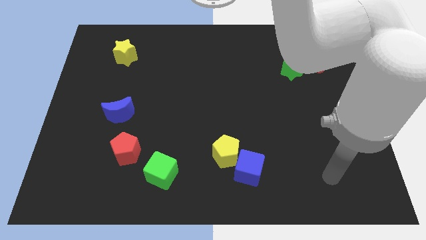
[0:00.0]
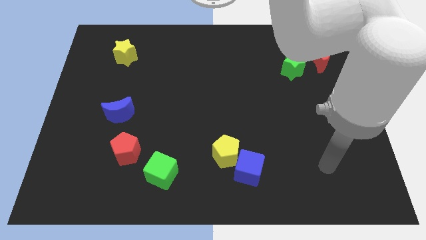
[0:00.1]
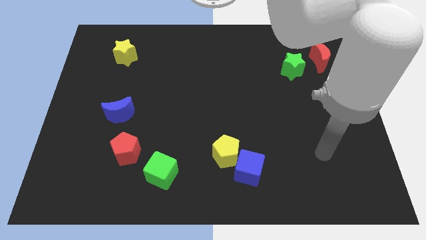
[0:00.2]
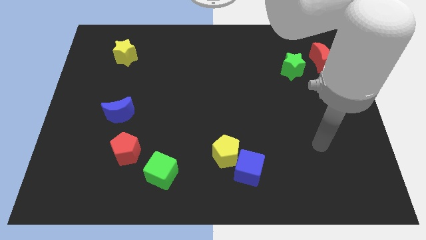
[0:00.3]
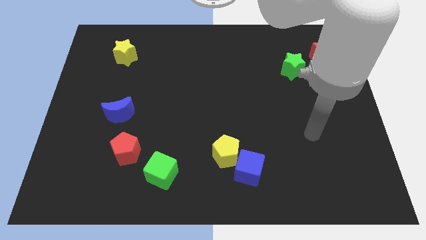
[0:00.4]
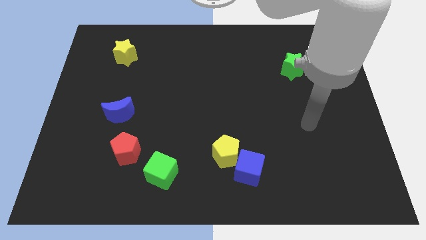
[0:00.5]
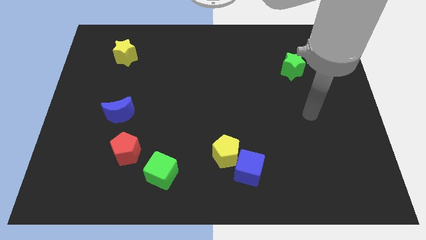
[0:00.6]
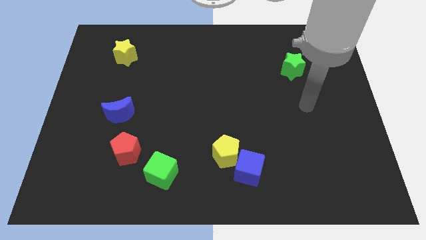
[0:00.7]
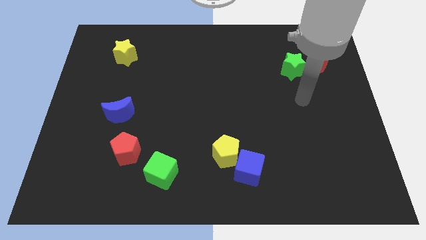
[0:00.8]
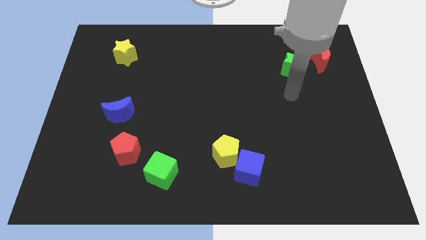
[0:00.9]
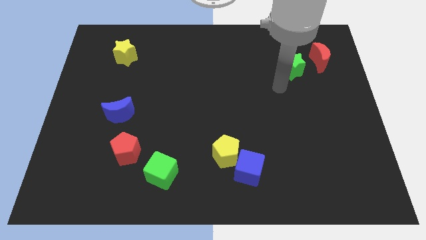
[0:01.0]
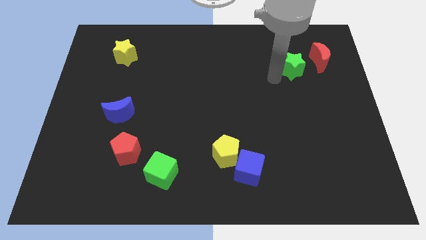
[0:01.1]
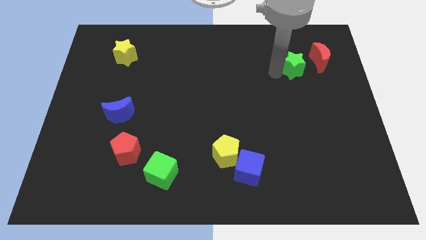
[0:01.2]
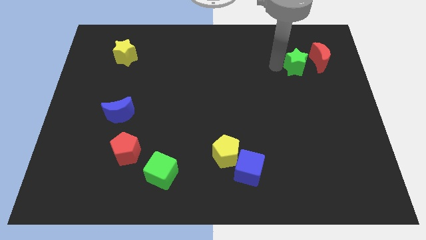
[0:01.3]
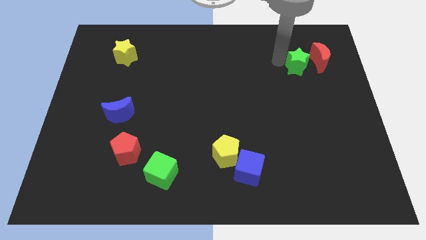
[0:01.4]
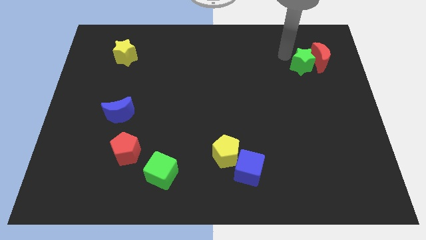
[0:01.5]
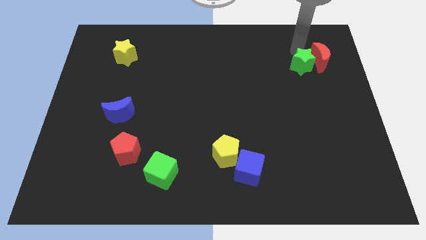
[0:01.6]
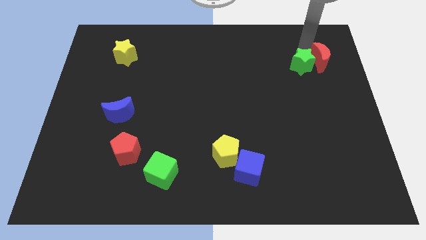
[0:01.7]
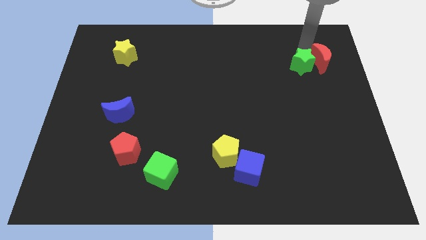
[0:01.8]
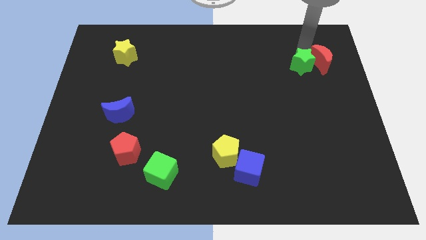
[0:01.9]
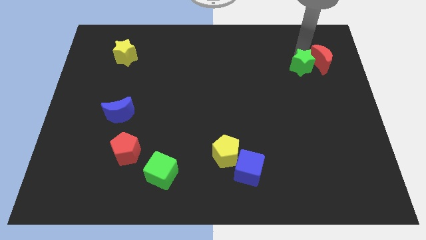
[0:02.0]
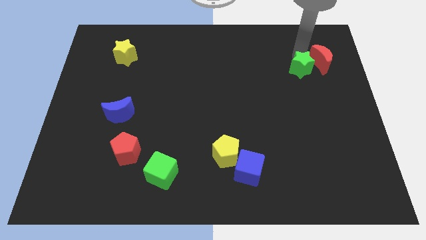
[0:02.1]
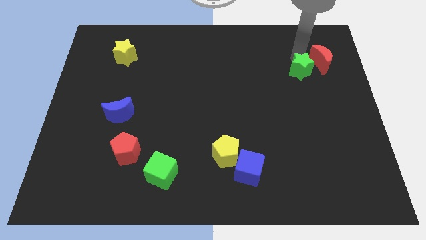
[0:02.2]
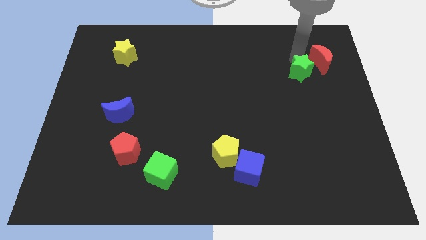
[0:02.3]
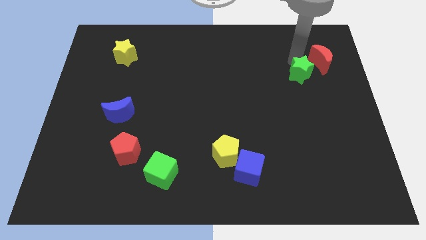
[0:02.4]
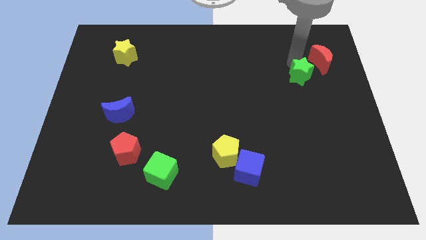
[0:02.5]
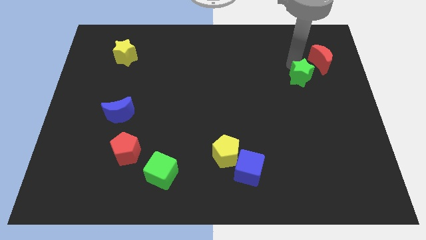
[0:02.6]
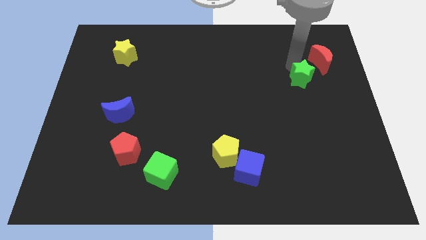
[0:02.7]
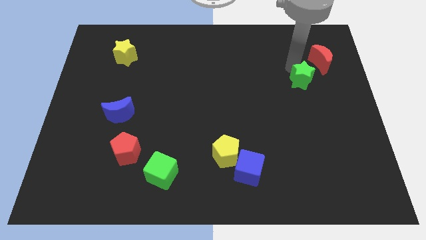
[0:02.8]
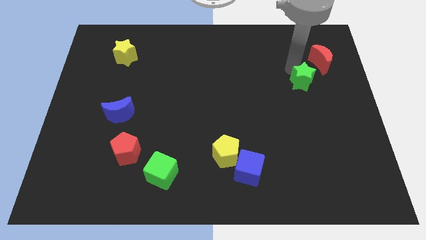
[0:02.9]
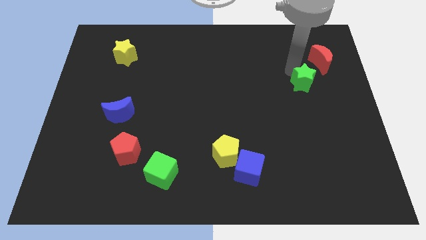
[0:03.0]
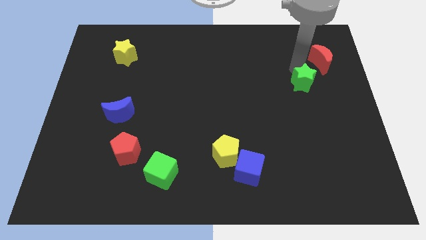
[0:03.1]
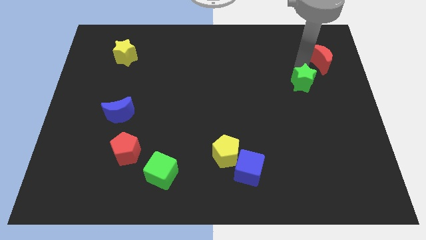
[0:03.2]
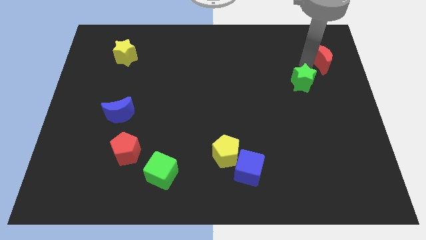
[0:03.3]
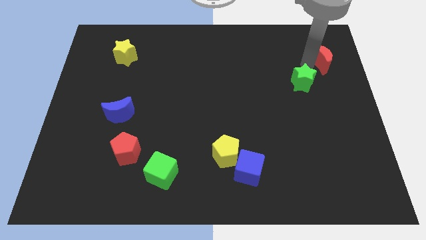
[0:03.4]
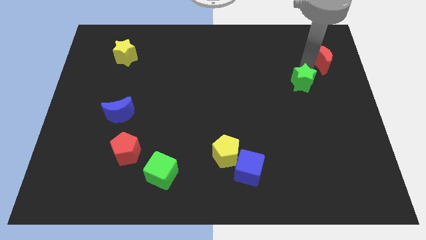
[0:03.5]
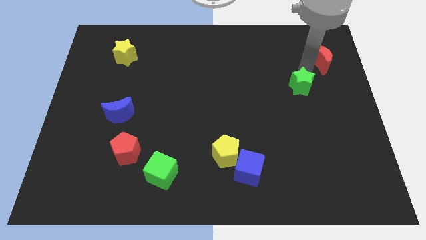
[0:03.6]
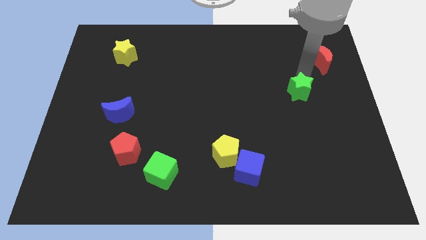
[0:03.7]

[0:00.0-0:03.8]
move the green star a little downwards

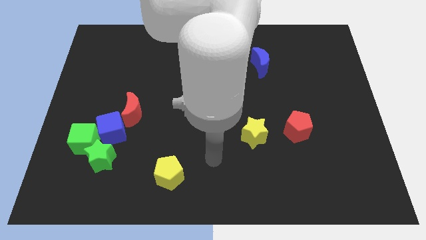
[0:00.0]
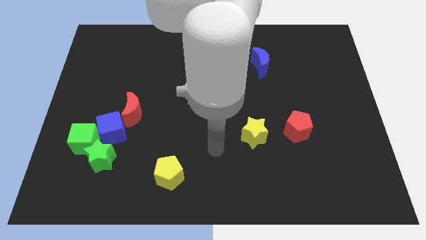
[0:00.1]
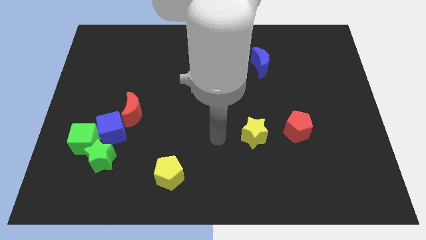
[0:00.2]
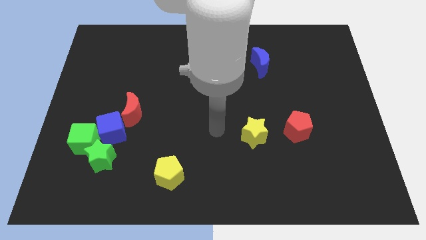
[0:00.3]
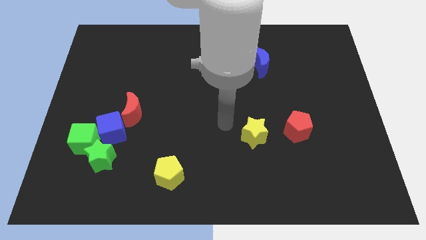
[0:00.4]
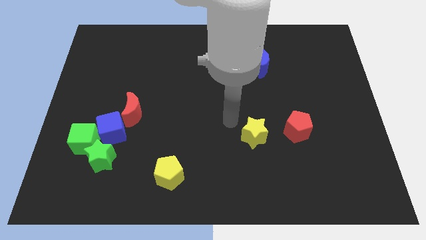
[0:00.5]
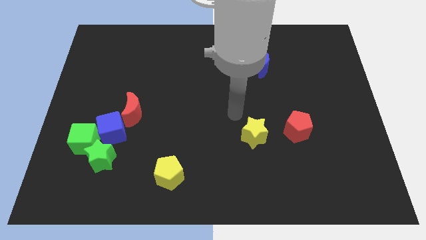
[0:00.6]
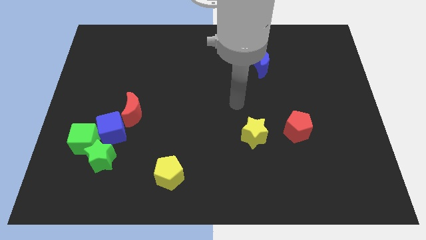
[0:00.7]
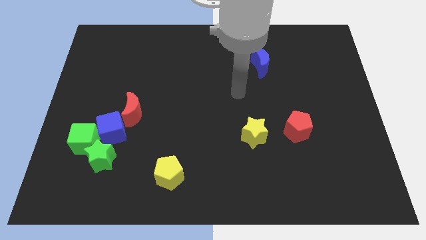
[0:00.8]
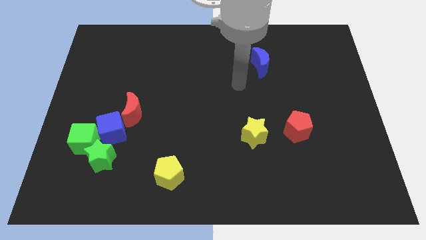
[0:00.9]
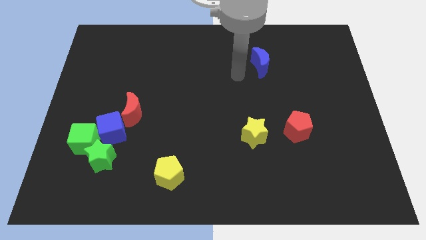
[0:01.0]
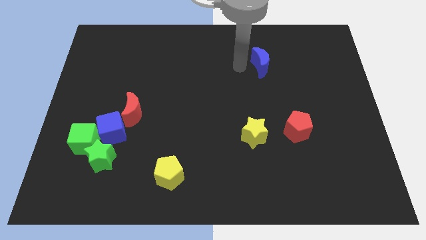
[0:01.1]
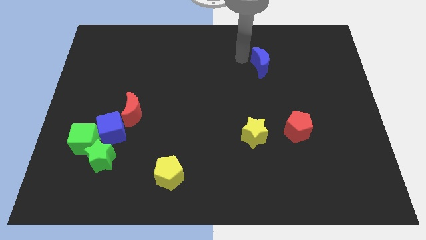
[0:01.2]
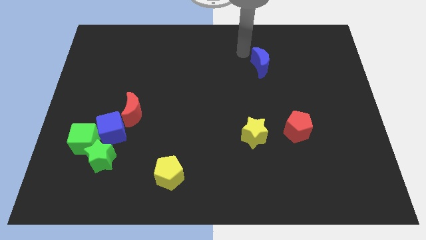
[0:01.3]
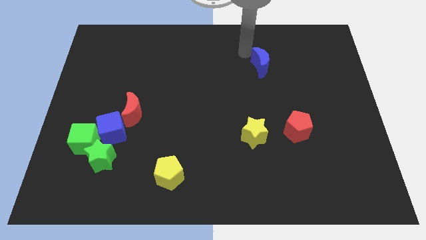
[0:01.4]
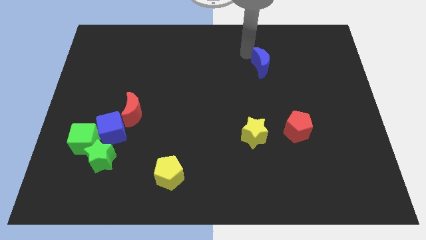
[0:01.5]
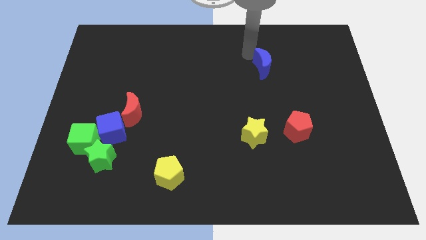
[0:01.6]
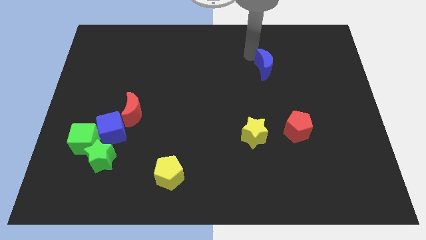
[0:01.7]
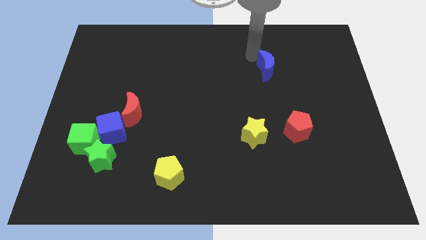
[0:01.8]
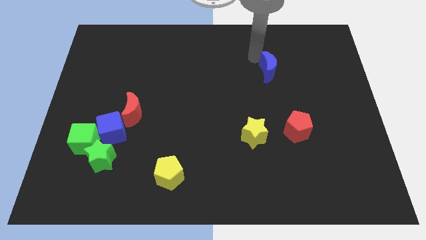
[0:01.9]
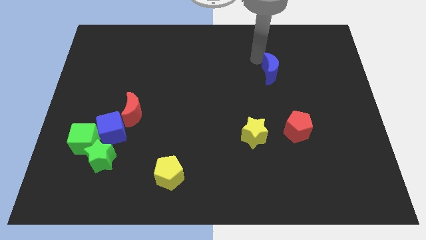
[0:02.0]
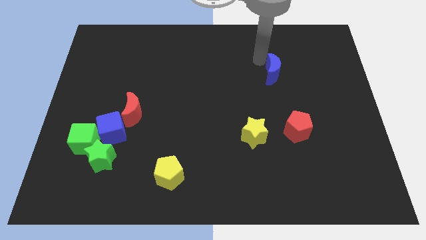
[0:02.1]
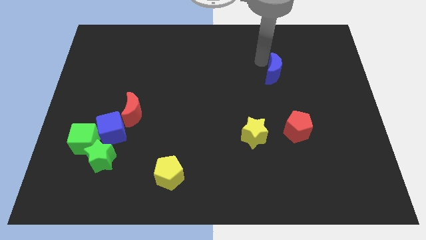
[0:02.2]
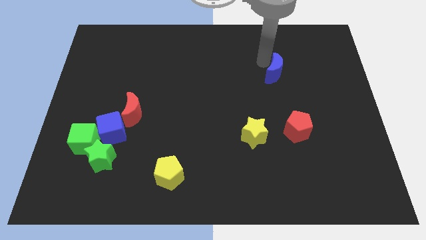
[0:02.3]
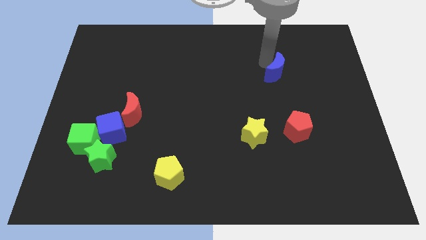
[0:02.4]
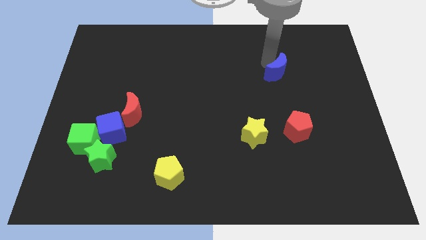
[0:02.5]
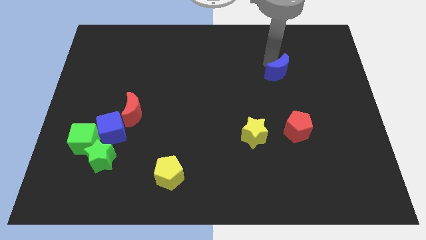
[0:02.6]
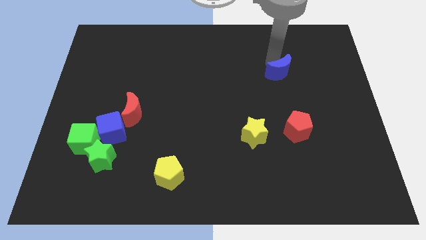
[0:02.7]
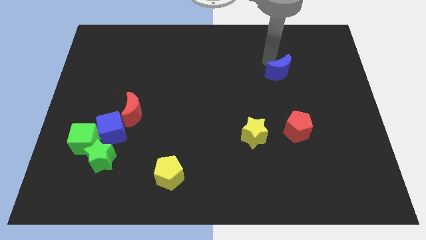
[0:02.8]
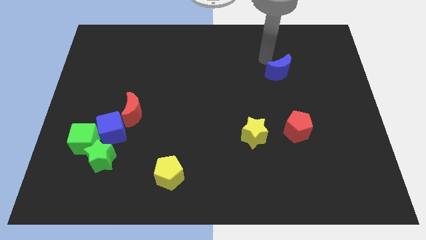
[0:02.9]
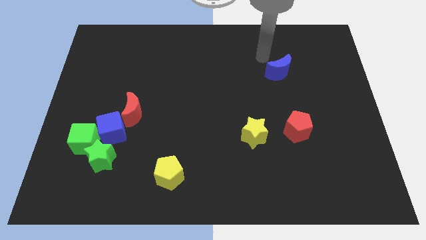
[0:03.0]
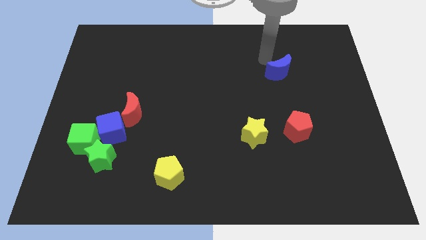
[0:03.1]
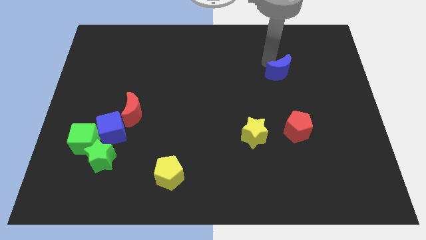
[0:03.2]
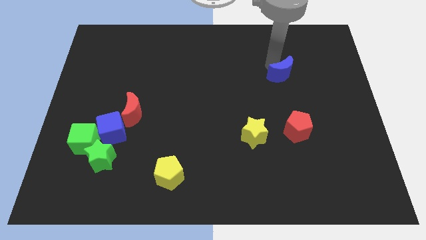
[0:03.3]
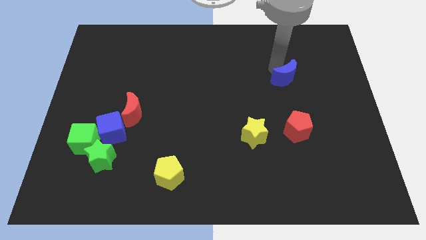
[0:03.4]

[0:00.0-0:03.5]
push the blue moon down and to the right diagonally slightly

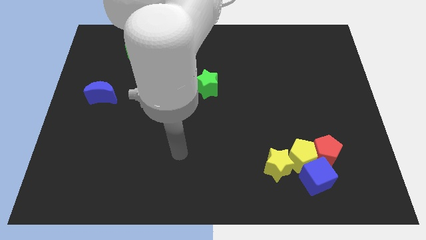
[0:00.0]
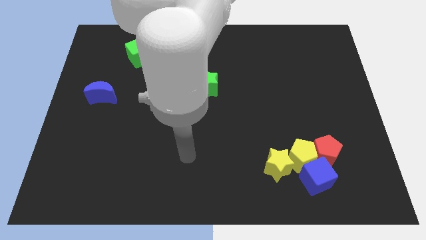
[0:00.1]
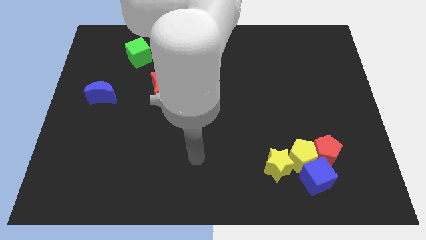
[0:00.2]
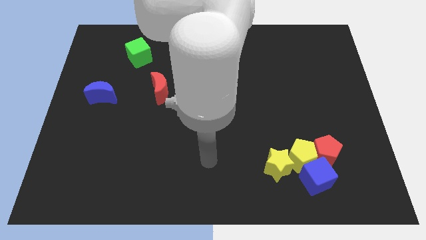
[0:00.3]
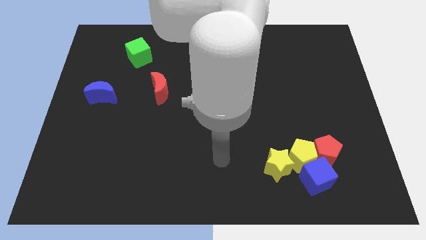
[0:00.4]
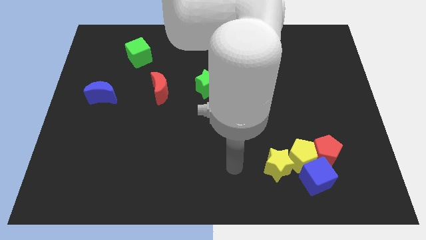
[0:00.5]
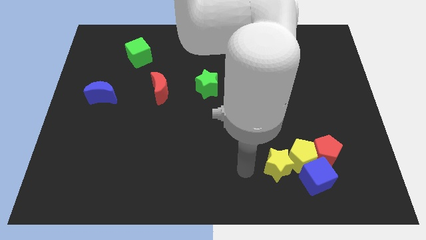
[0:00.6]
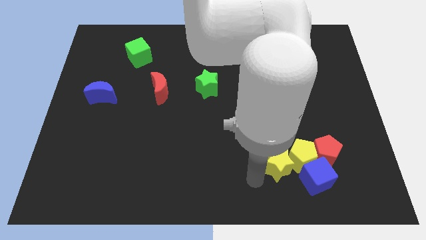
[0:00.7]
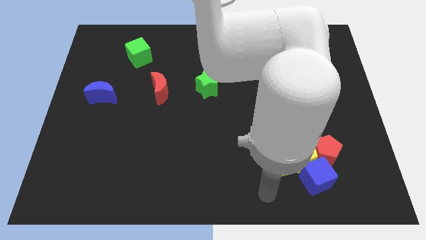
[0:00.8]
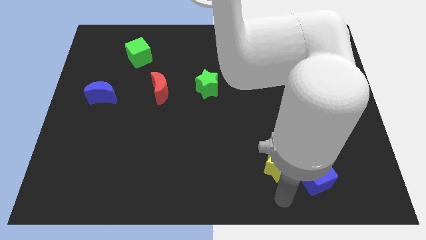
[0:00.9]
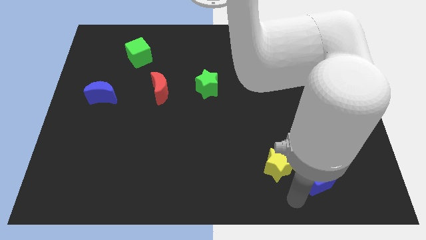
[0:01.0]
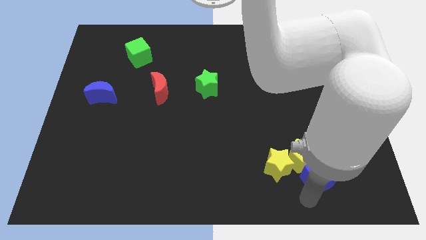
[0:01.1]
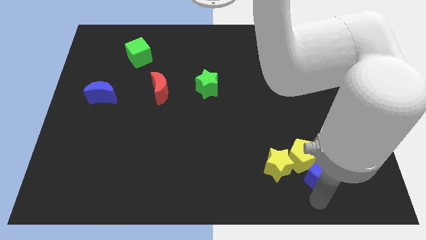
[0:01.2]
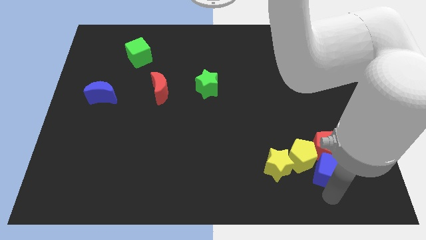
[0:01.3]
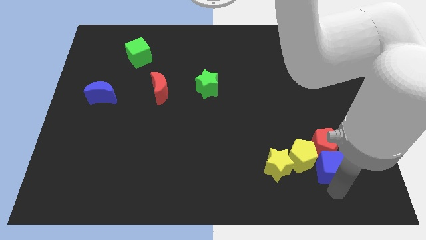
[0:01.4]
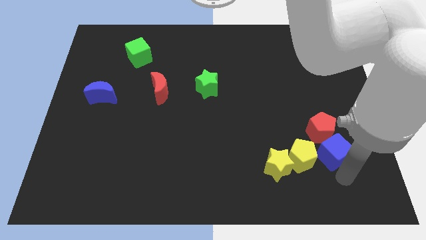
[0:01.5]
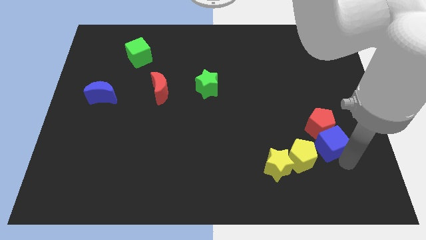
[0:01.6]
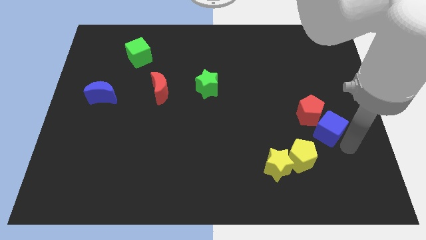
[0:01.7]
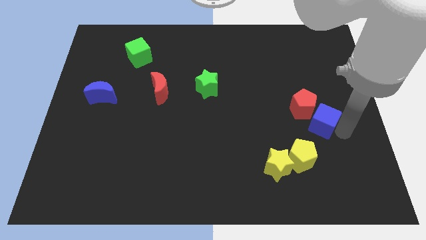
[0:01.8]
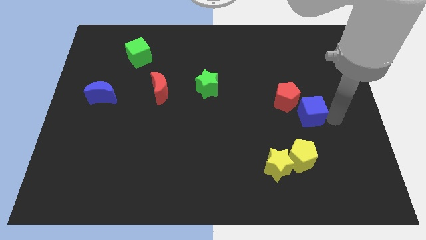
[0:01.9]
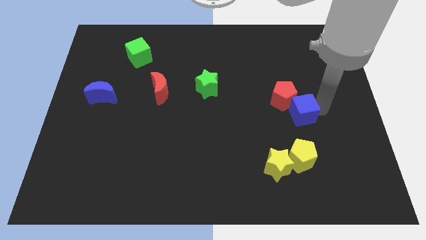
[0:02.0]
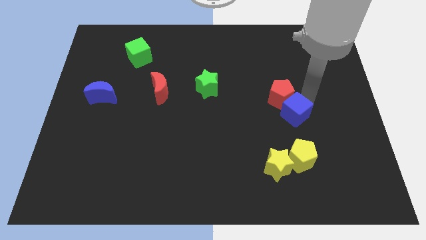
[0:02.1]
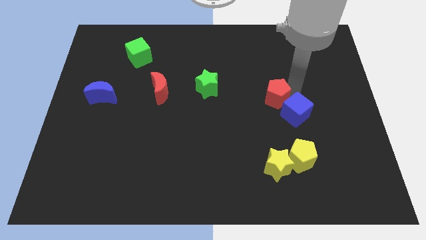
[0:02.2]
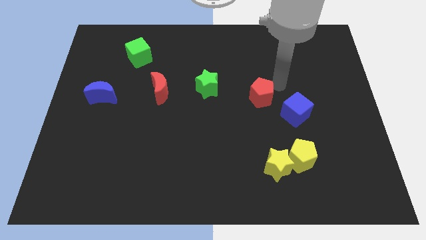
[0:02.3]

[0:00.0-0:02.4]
slide the red pentagon up and then to the left
